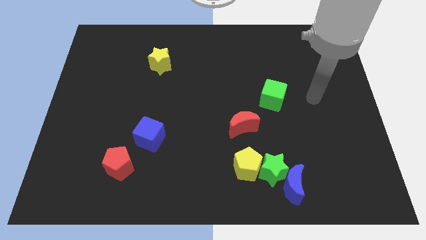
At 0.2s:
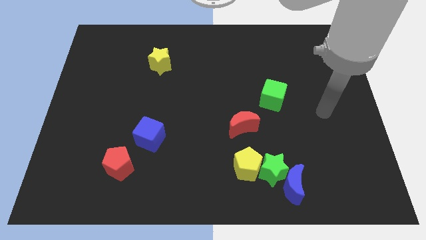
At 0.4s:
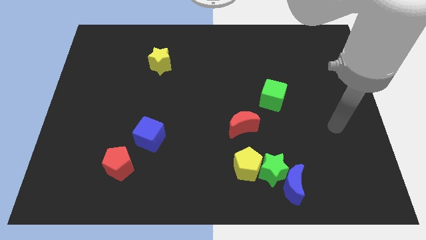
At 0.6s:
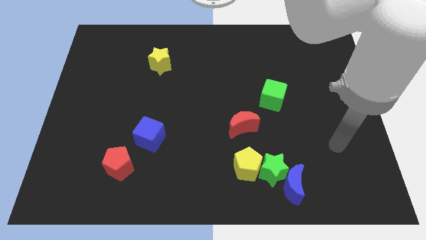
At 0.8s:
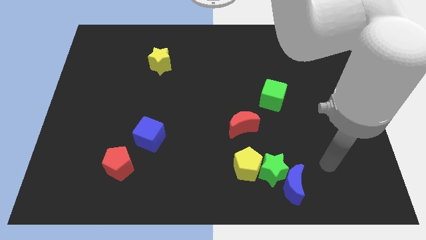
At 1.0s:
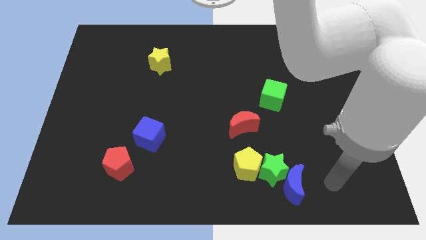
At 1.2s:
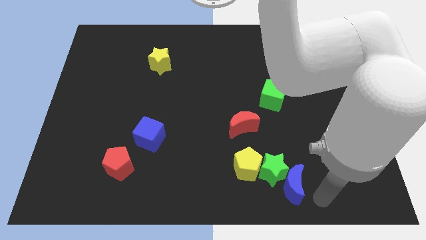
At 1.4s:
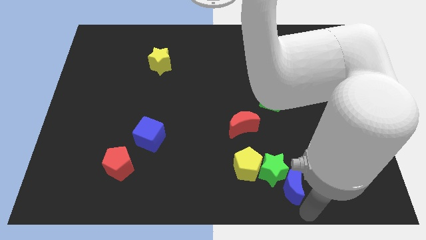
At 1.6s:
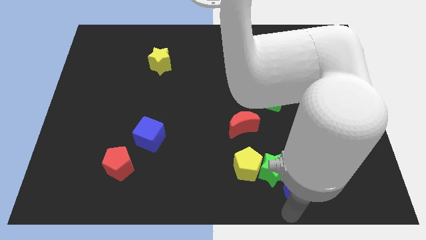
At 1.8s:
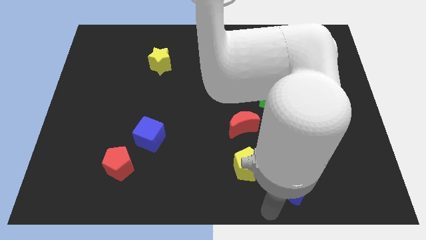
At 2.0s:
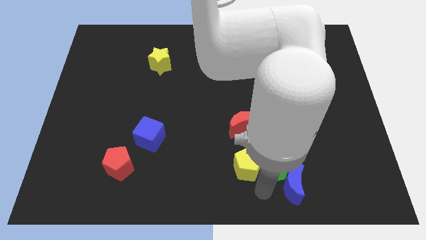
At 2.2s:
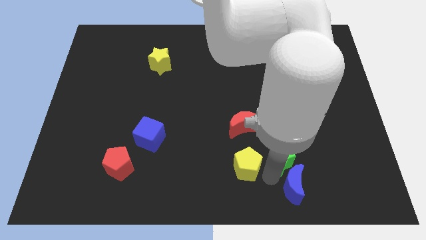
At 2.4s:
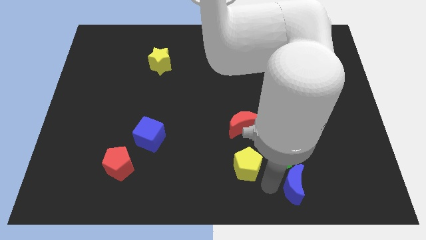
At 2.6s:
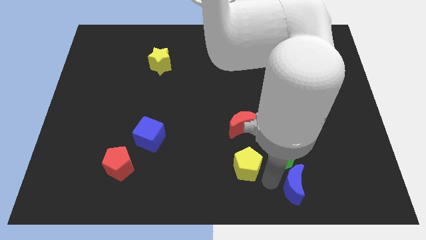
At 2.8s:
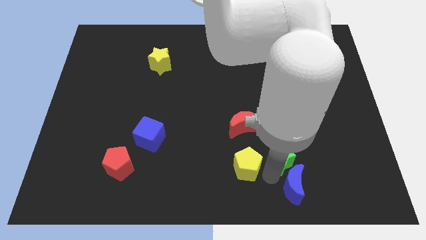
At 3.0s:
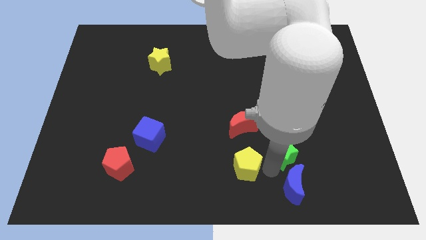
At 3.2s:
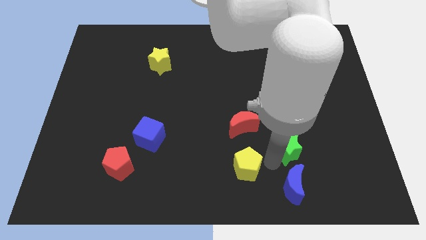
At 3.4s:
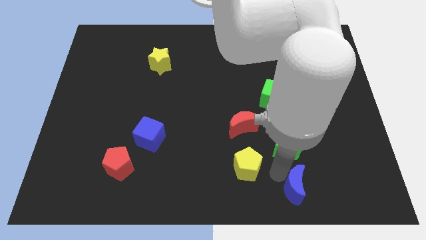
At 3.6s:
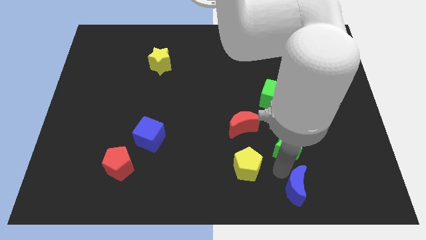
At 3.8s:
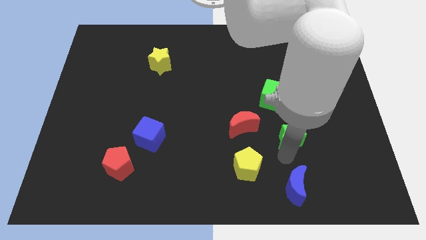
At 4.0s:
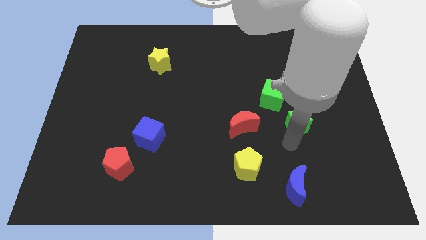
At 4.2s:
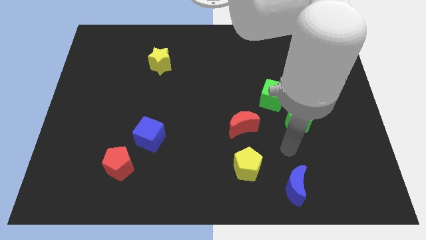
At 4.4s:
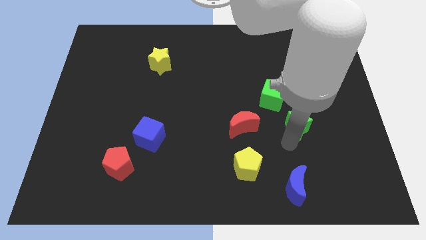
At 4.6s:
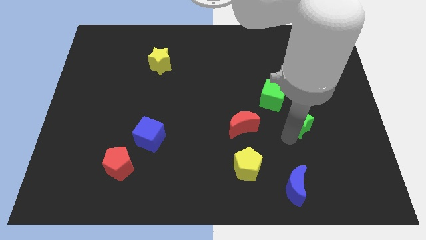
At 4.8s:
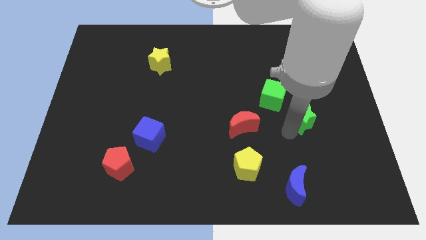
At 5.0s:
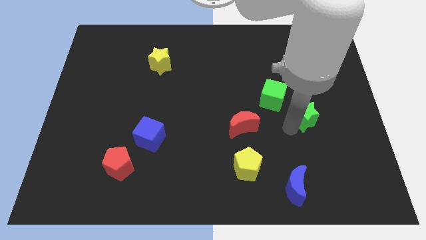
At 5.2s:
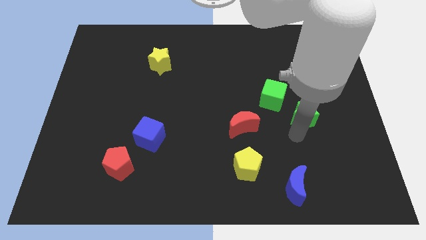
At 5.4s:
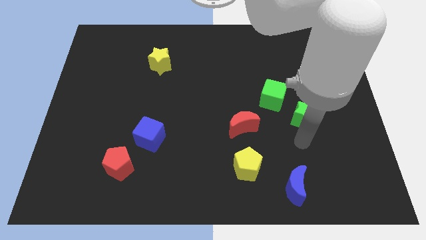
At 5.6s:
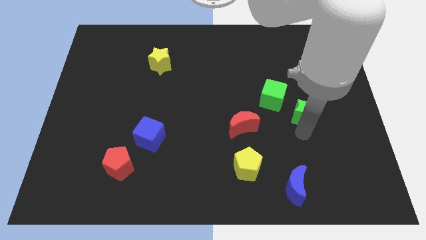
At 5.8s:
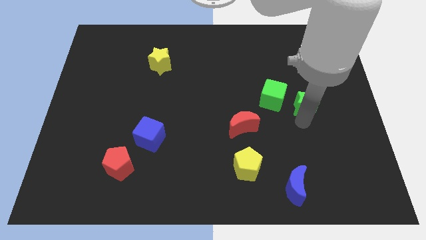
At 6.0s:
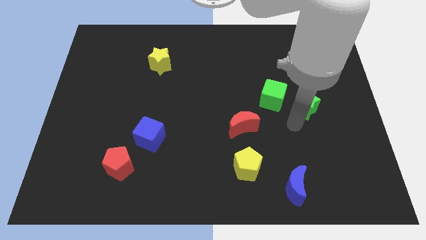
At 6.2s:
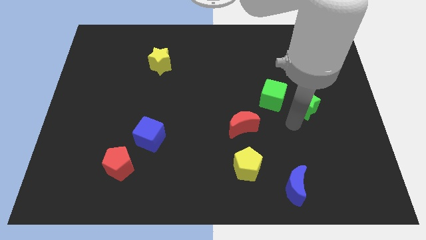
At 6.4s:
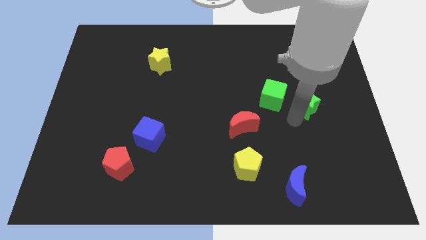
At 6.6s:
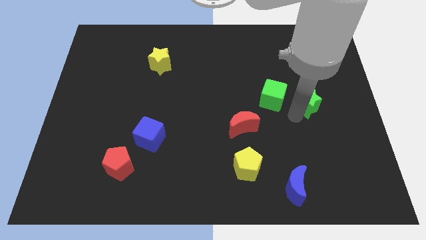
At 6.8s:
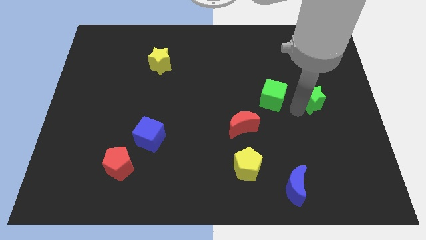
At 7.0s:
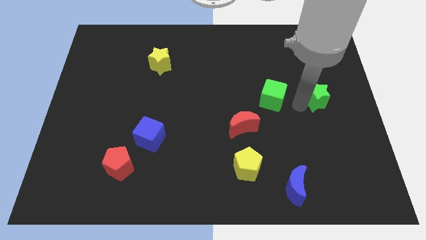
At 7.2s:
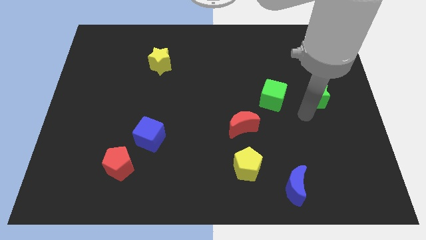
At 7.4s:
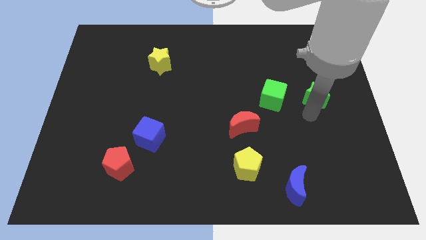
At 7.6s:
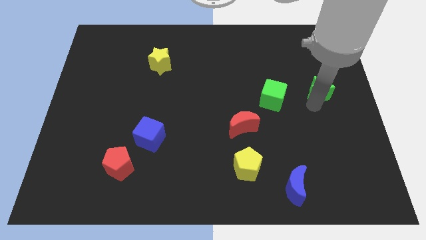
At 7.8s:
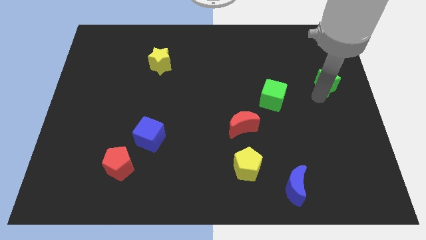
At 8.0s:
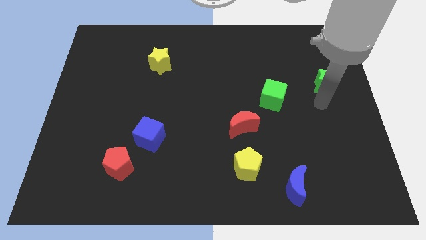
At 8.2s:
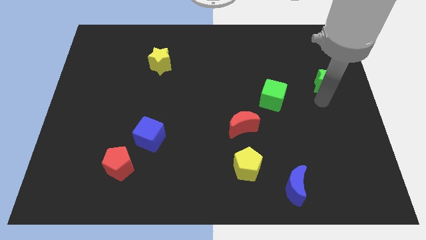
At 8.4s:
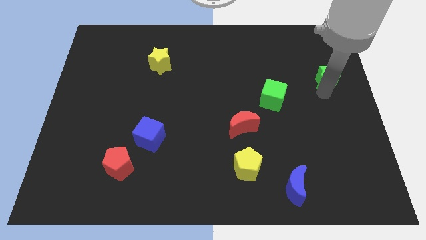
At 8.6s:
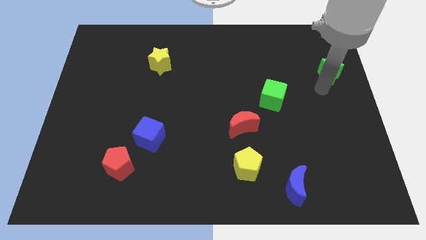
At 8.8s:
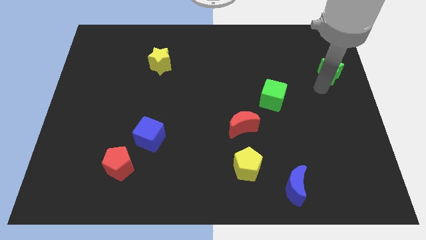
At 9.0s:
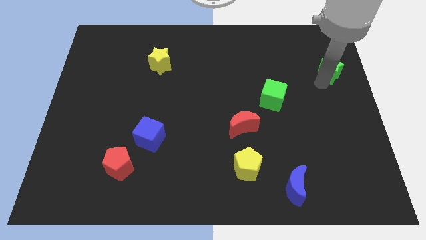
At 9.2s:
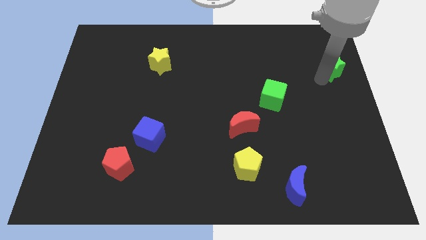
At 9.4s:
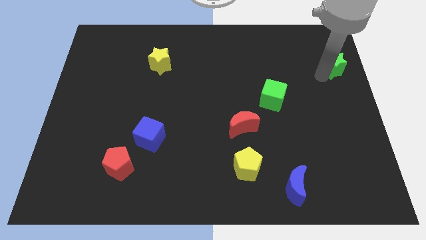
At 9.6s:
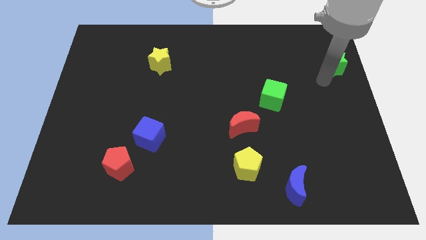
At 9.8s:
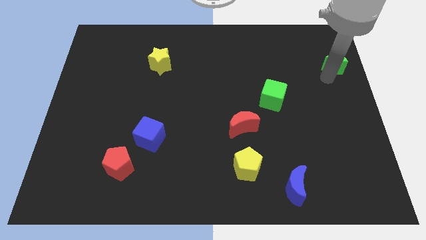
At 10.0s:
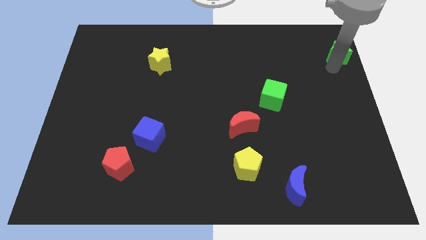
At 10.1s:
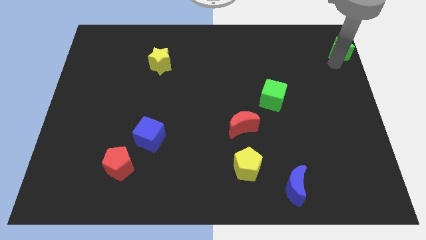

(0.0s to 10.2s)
push the green star to the top right
